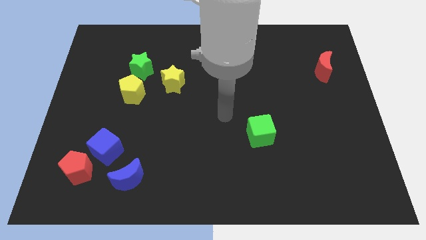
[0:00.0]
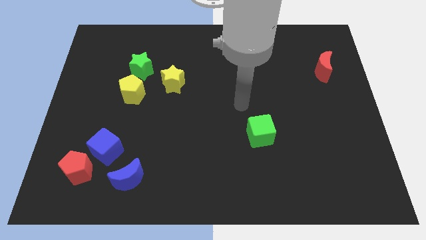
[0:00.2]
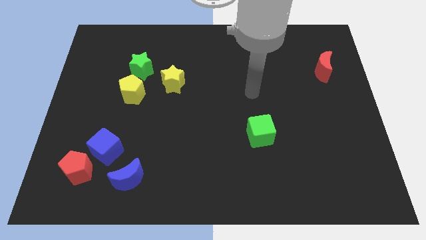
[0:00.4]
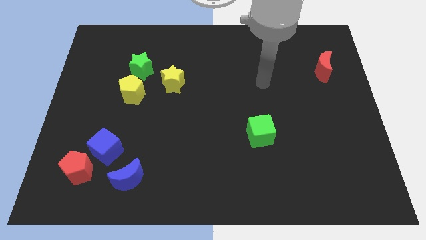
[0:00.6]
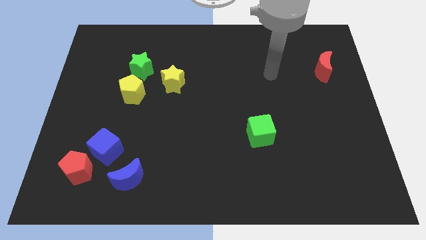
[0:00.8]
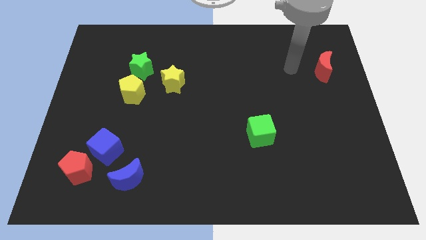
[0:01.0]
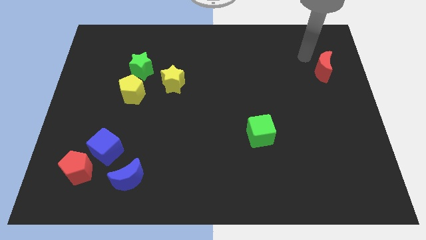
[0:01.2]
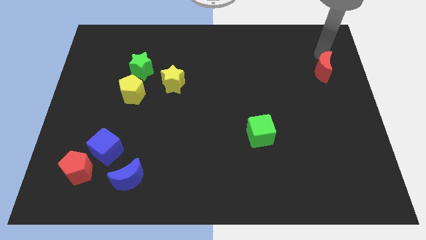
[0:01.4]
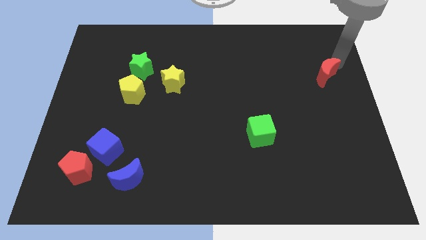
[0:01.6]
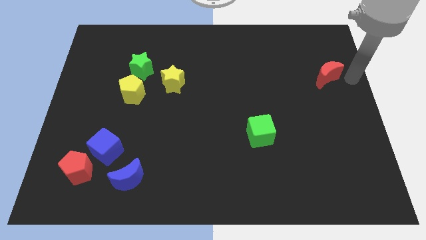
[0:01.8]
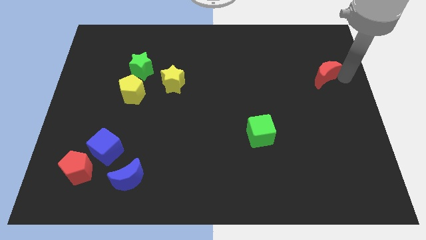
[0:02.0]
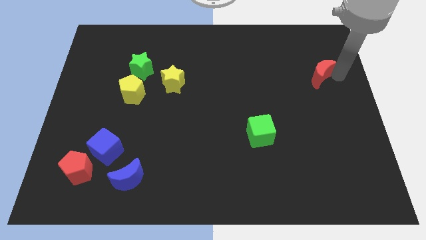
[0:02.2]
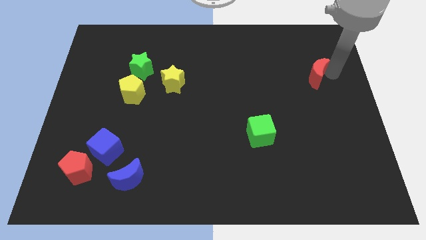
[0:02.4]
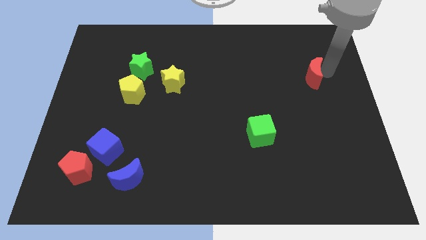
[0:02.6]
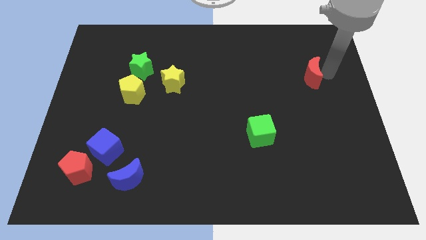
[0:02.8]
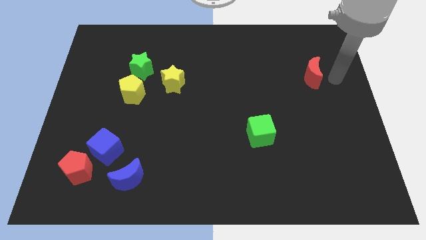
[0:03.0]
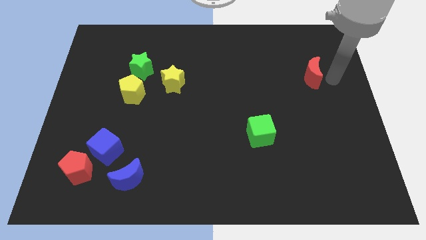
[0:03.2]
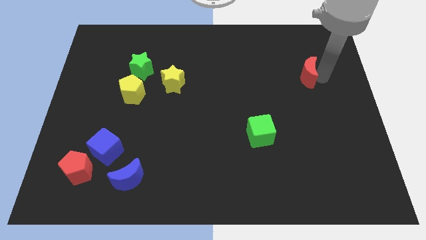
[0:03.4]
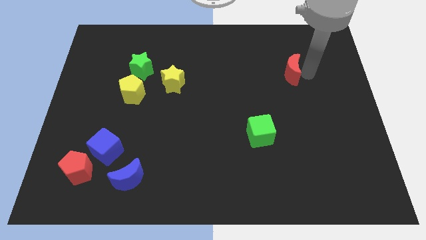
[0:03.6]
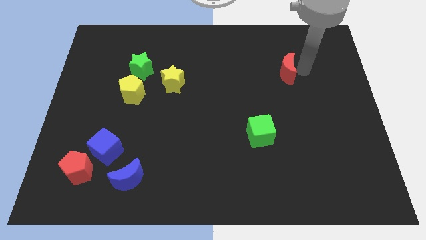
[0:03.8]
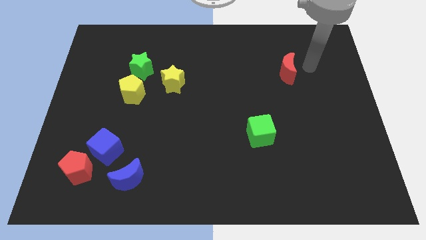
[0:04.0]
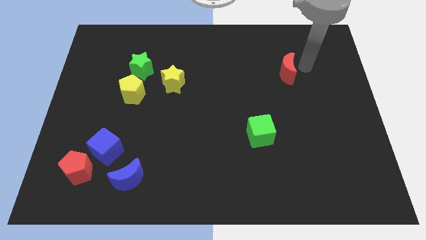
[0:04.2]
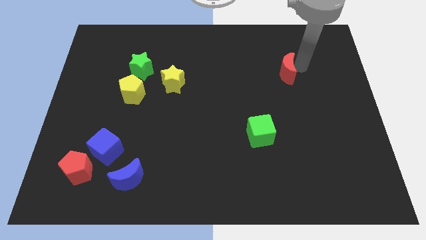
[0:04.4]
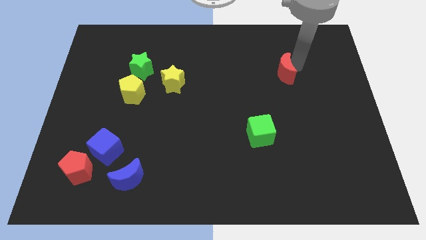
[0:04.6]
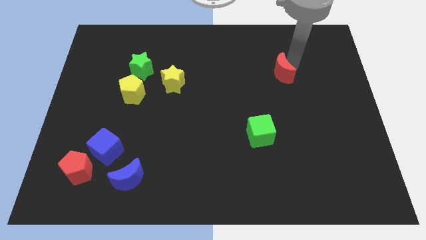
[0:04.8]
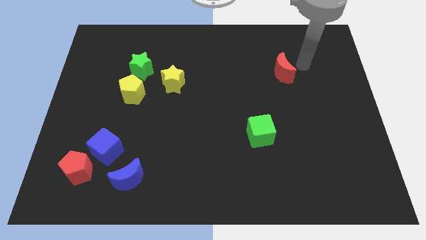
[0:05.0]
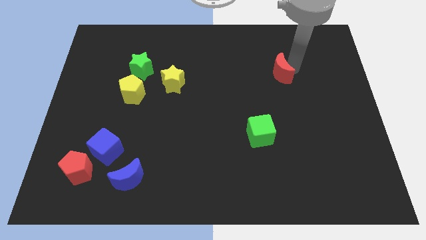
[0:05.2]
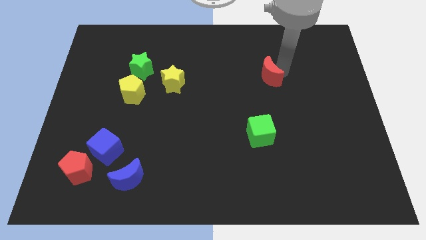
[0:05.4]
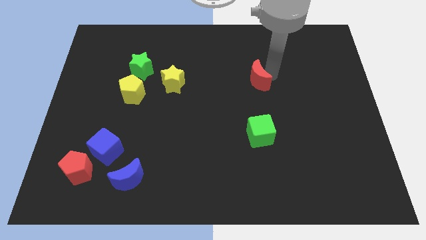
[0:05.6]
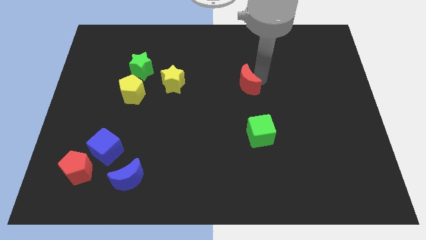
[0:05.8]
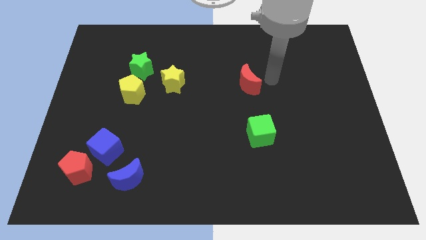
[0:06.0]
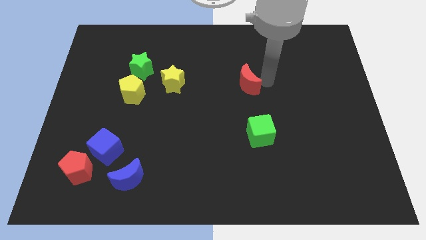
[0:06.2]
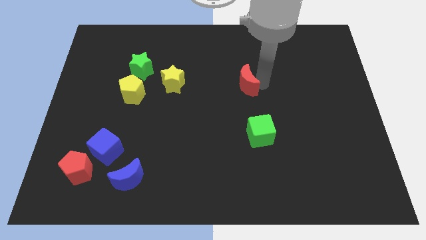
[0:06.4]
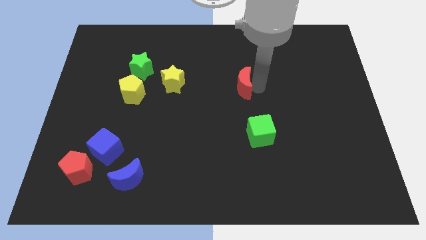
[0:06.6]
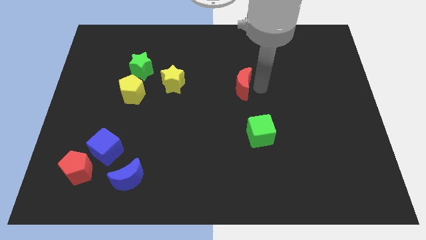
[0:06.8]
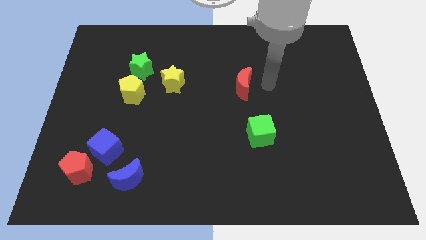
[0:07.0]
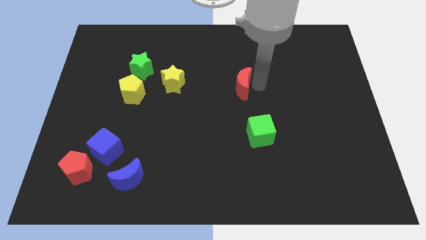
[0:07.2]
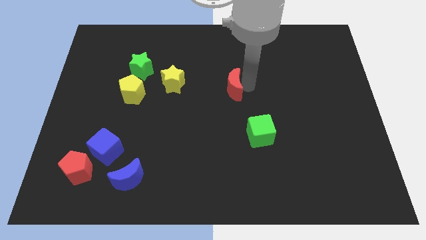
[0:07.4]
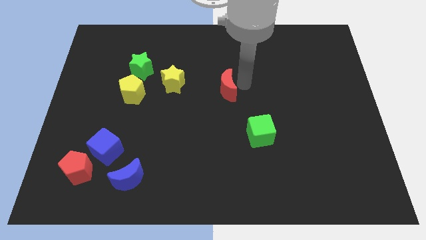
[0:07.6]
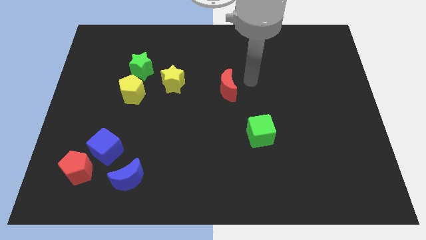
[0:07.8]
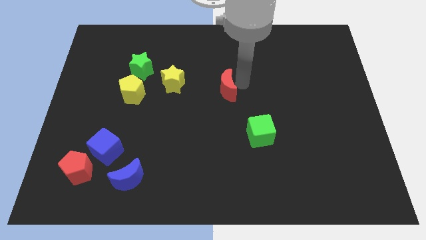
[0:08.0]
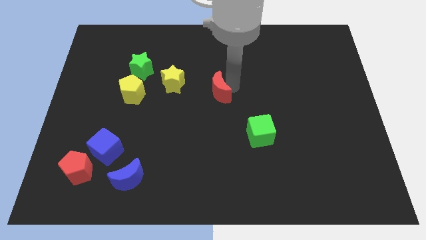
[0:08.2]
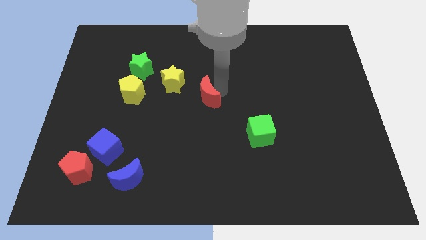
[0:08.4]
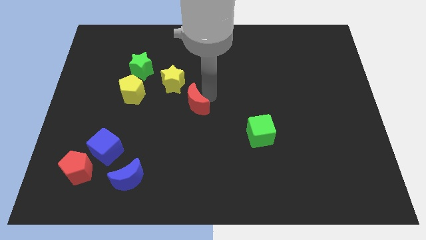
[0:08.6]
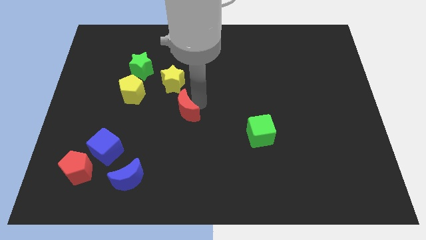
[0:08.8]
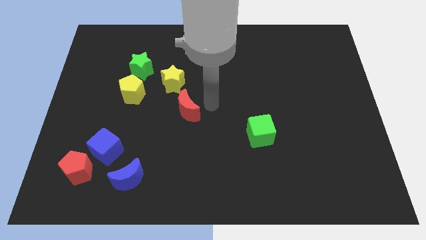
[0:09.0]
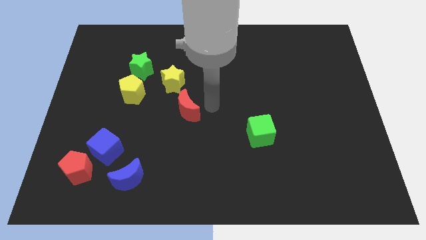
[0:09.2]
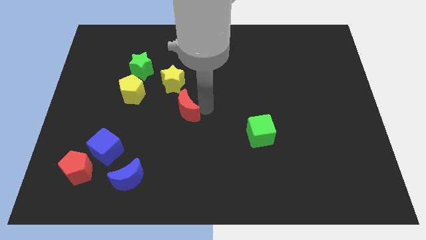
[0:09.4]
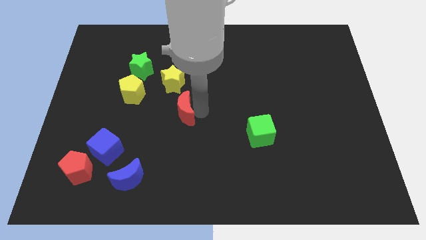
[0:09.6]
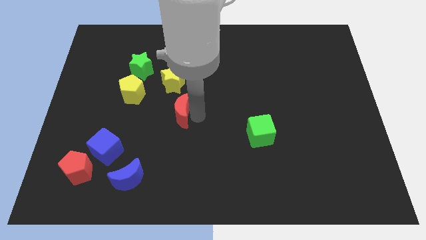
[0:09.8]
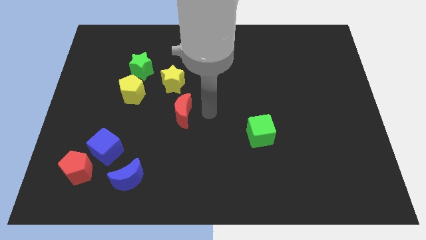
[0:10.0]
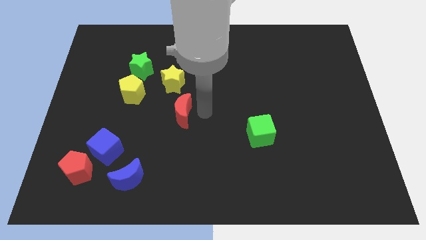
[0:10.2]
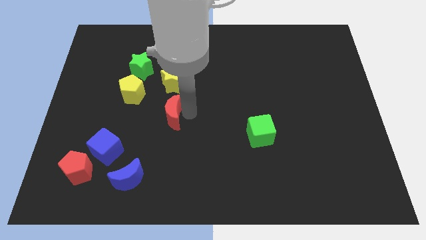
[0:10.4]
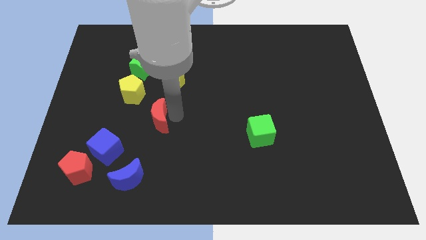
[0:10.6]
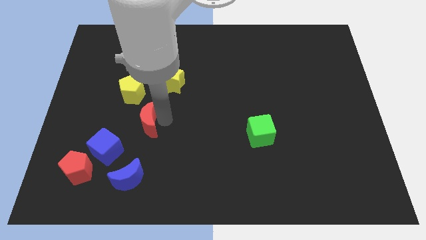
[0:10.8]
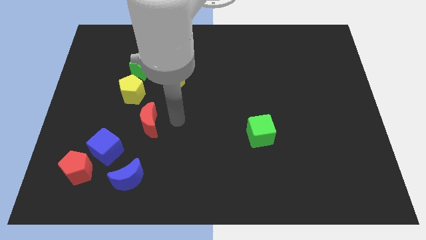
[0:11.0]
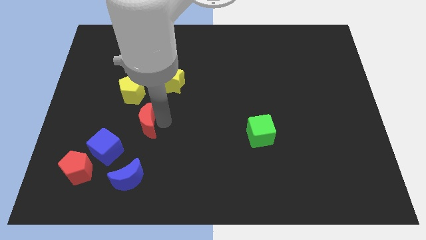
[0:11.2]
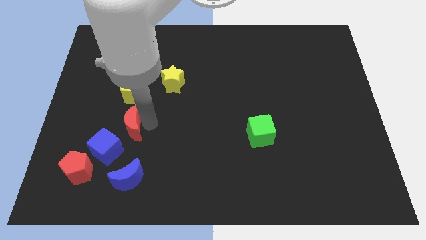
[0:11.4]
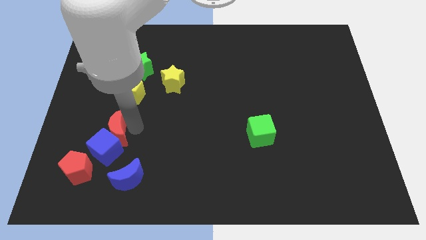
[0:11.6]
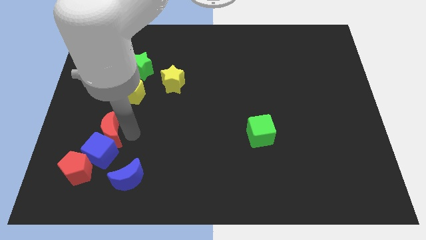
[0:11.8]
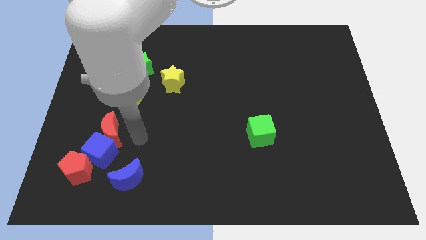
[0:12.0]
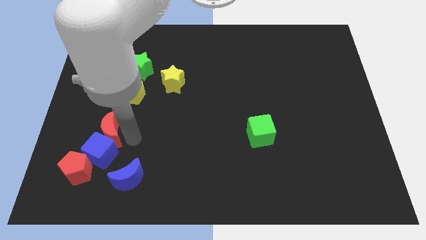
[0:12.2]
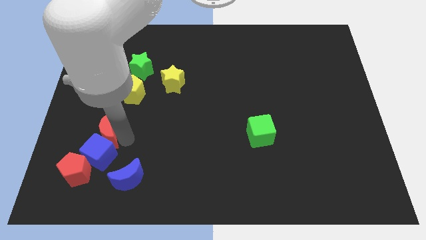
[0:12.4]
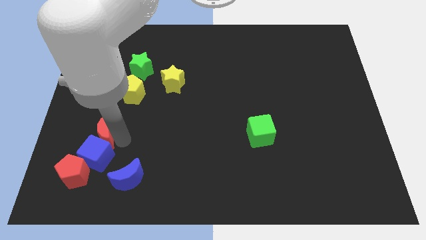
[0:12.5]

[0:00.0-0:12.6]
slide the red moon to the top side of the red pentagon

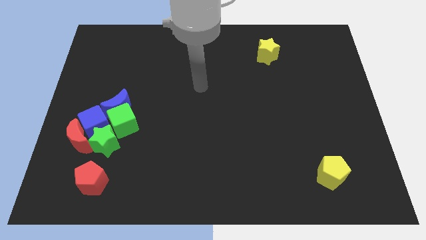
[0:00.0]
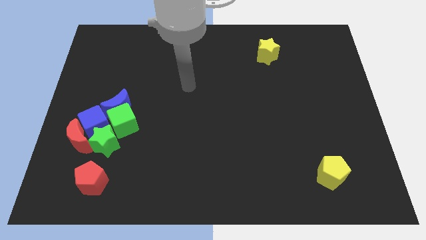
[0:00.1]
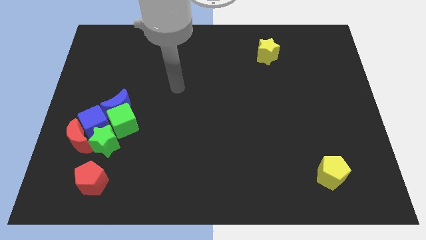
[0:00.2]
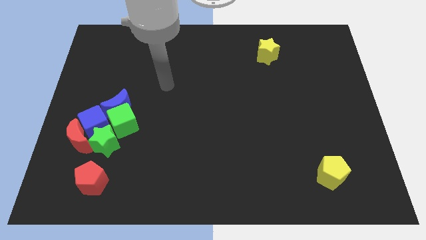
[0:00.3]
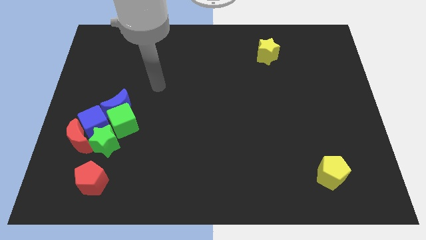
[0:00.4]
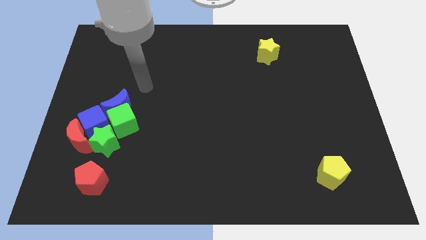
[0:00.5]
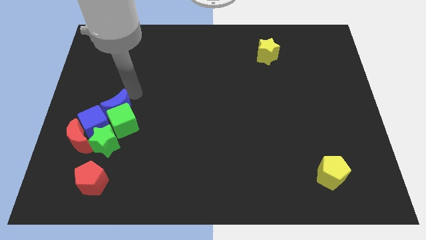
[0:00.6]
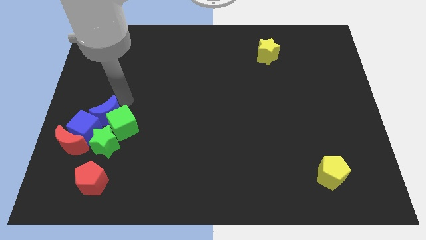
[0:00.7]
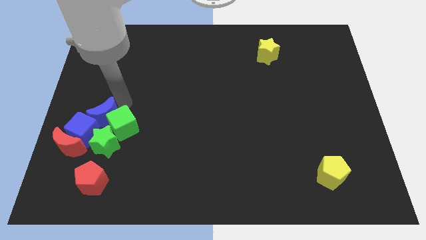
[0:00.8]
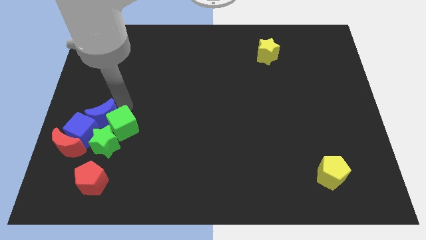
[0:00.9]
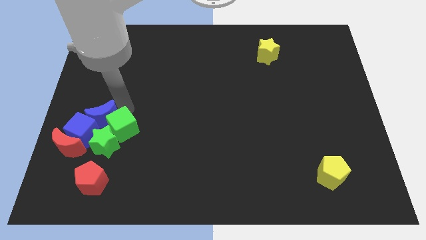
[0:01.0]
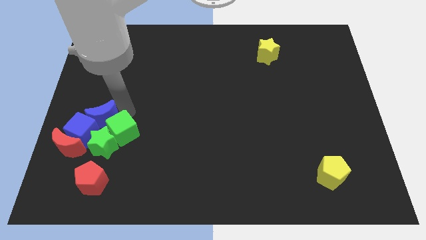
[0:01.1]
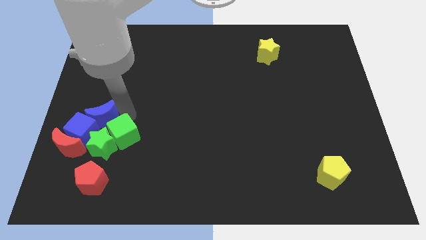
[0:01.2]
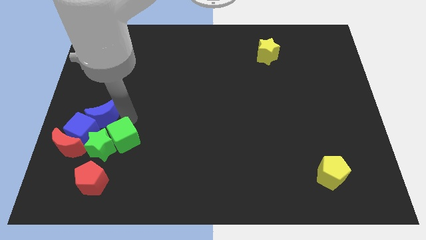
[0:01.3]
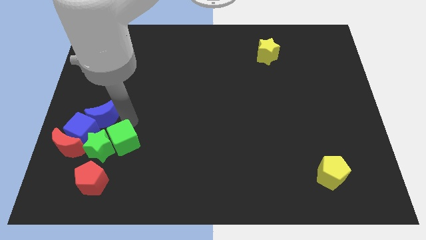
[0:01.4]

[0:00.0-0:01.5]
put the green cube to the bottom right of the green star

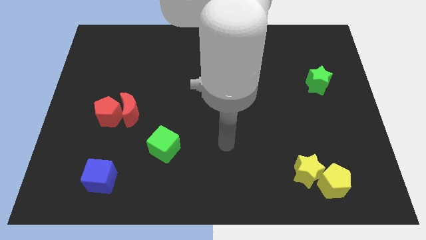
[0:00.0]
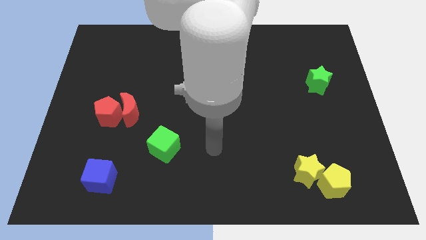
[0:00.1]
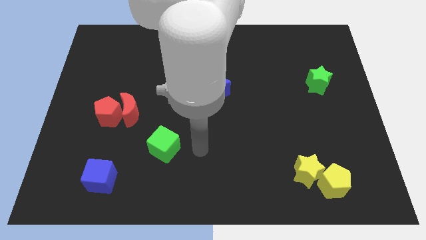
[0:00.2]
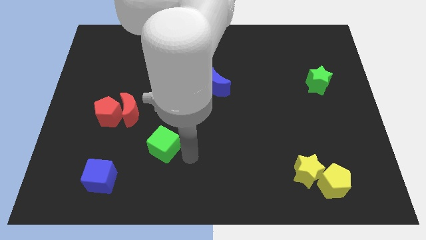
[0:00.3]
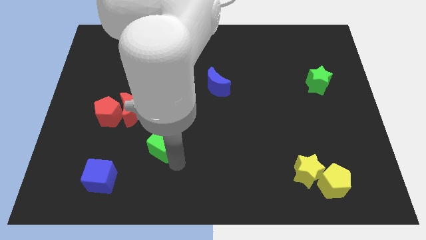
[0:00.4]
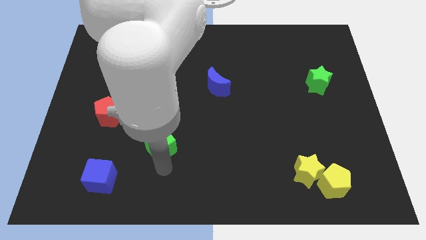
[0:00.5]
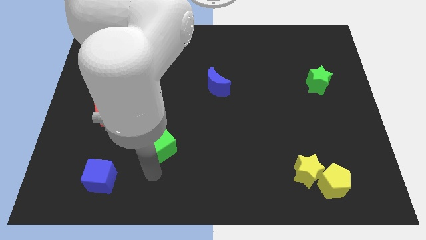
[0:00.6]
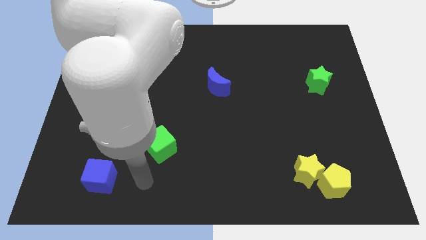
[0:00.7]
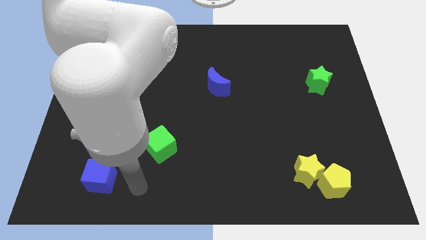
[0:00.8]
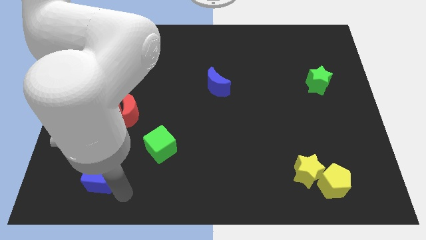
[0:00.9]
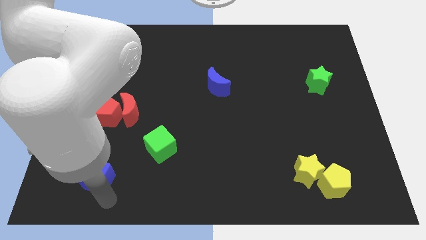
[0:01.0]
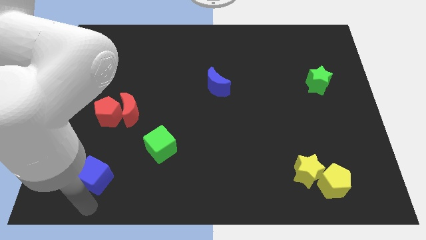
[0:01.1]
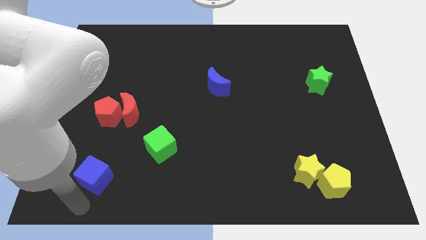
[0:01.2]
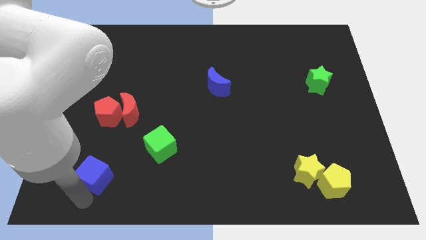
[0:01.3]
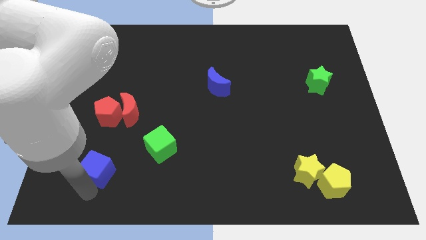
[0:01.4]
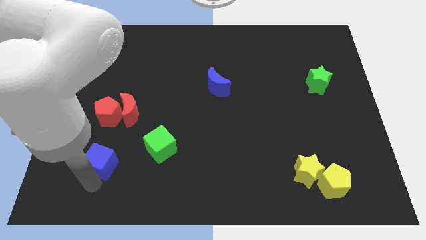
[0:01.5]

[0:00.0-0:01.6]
put the blue cube to the left of the green cube
